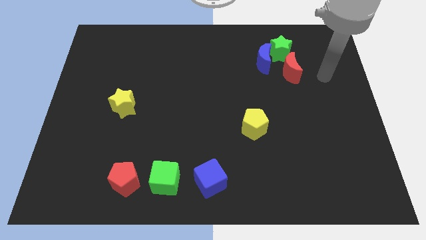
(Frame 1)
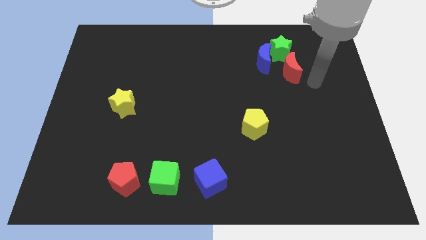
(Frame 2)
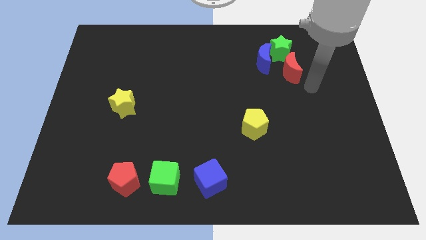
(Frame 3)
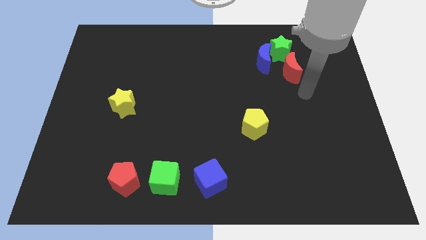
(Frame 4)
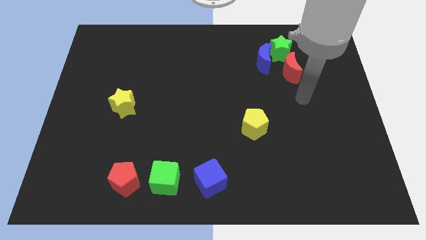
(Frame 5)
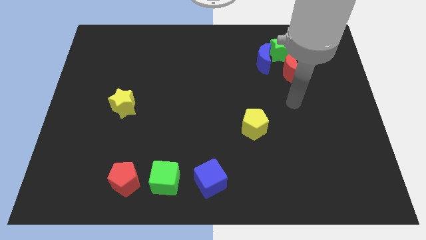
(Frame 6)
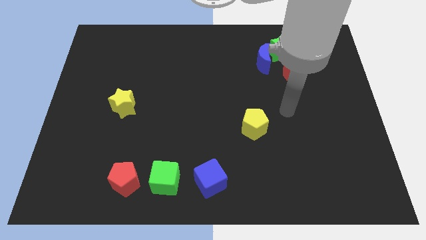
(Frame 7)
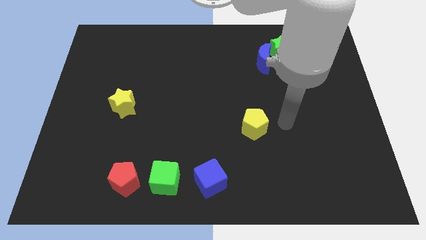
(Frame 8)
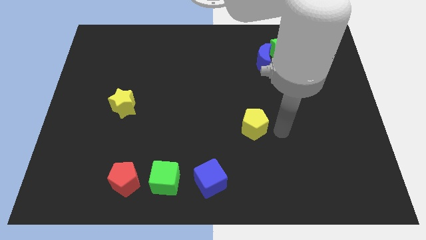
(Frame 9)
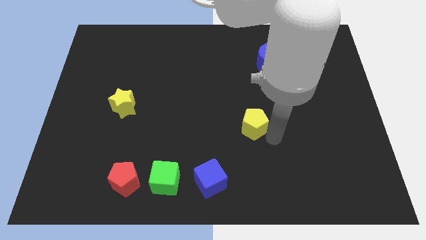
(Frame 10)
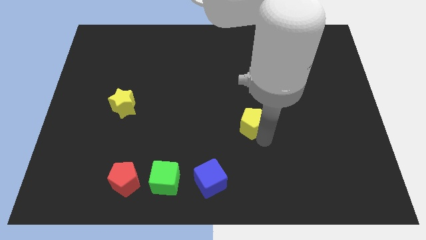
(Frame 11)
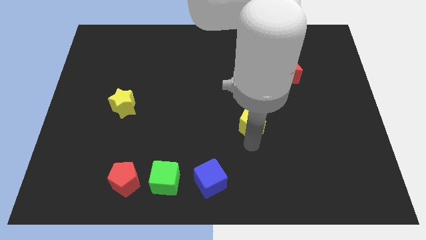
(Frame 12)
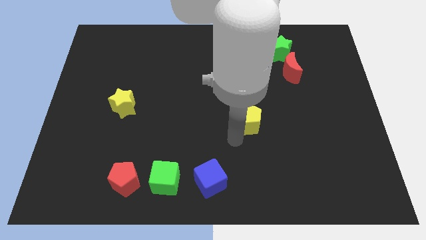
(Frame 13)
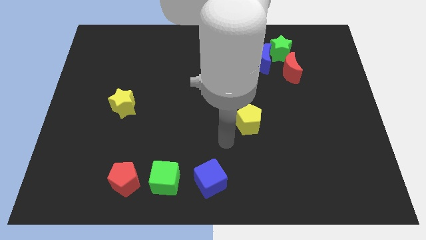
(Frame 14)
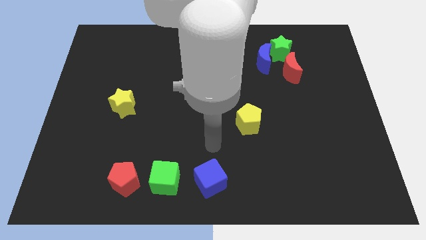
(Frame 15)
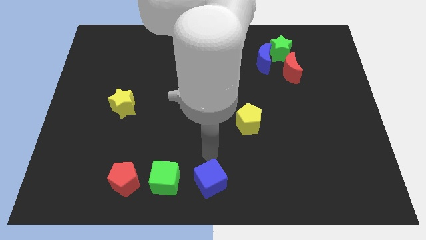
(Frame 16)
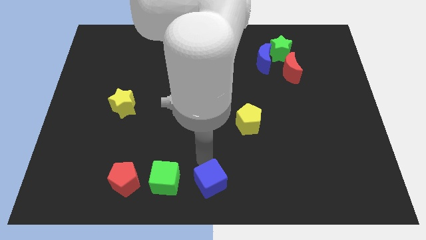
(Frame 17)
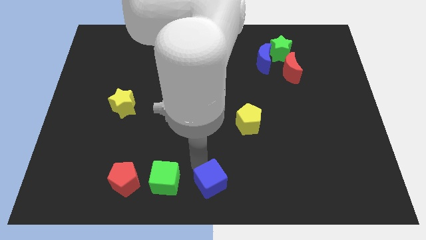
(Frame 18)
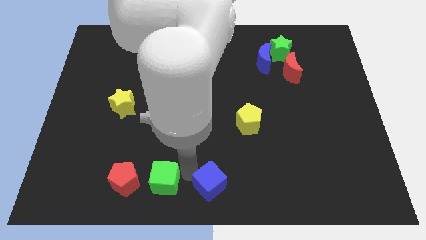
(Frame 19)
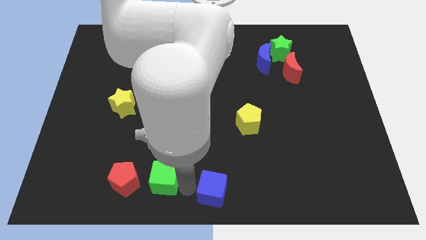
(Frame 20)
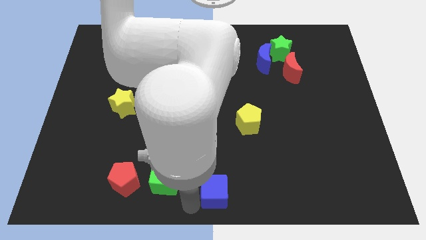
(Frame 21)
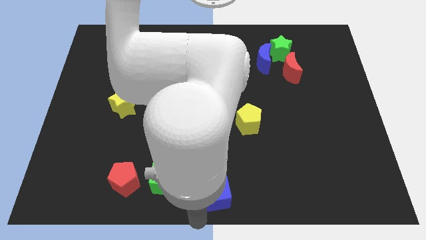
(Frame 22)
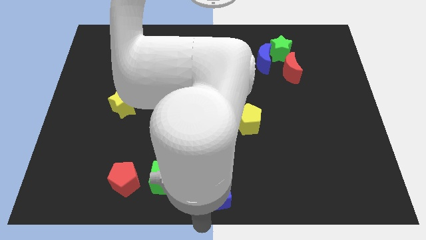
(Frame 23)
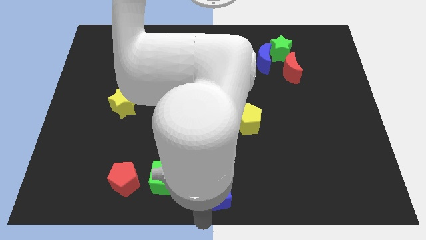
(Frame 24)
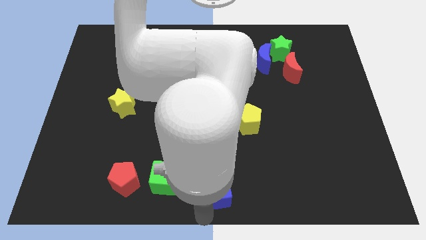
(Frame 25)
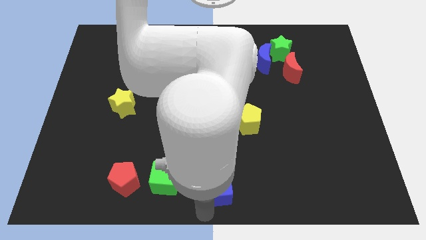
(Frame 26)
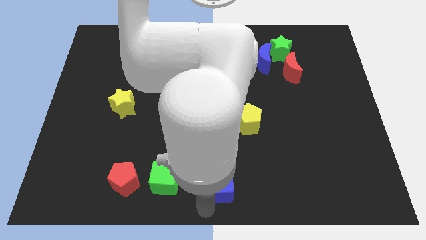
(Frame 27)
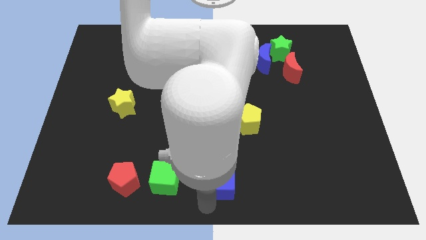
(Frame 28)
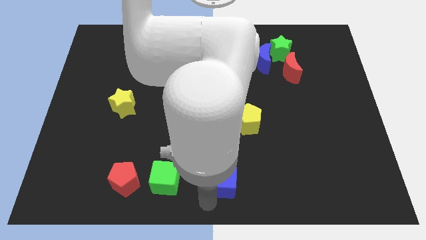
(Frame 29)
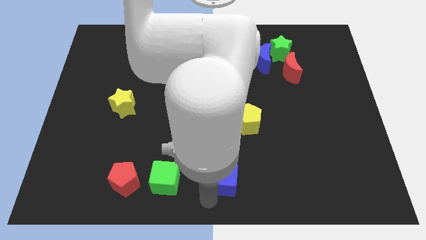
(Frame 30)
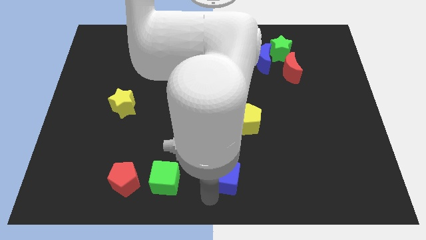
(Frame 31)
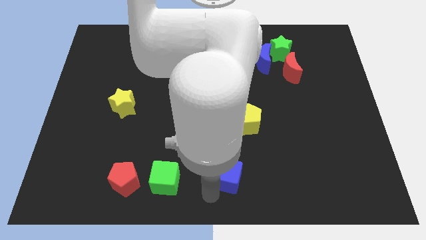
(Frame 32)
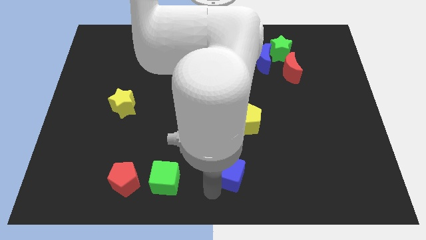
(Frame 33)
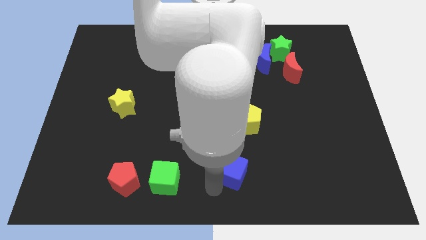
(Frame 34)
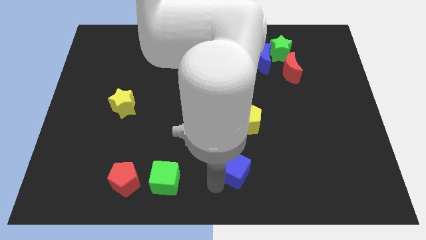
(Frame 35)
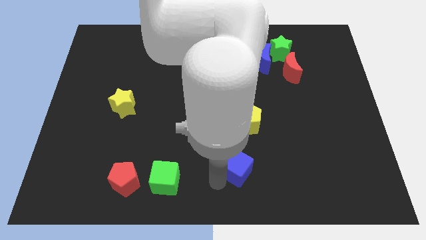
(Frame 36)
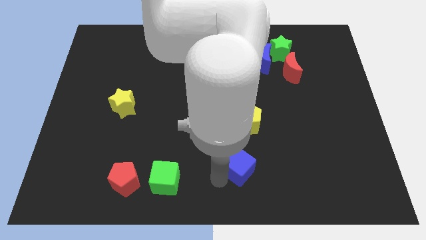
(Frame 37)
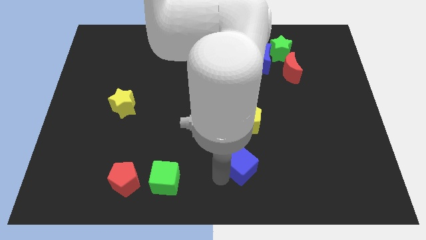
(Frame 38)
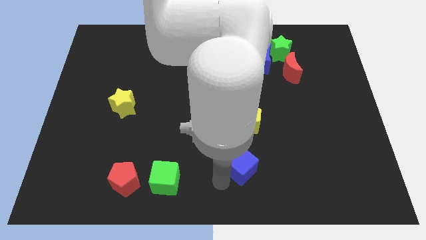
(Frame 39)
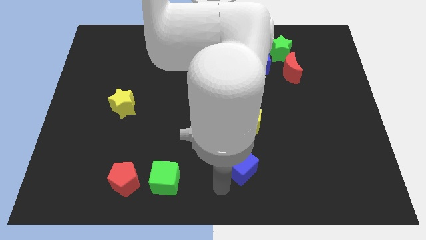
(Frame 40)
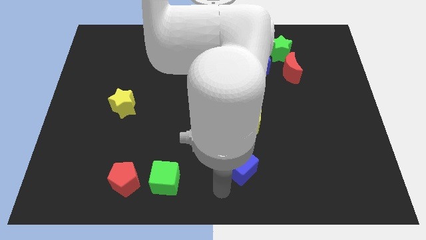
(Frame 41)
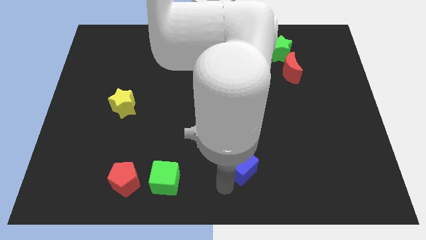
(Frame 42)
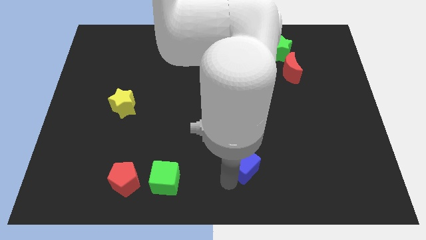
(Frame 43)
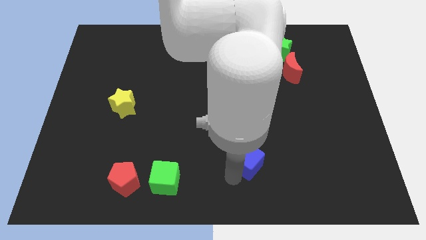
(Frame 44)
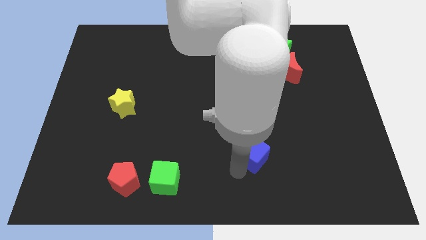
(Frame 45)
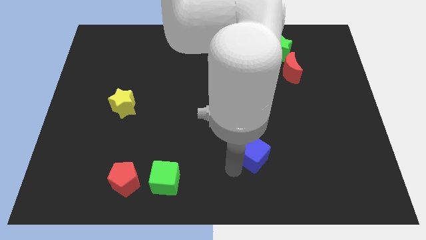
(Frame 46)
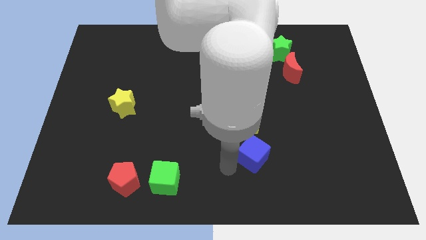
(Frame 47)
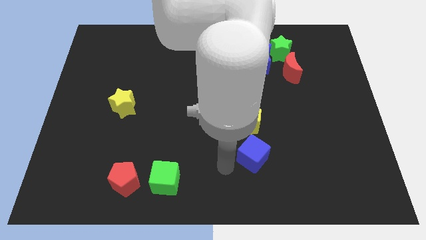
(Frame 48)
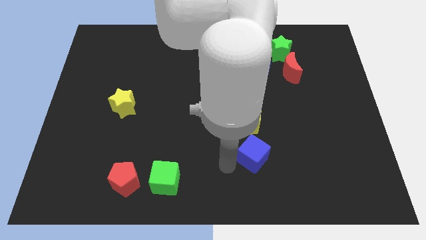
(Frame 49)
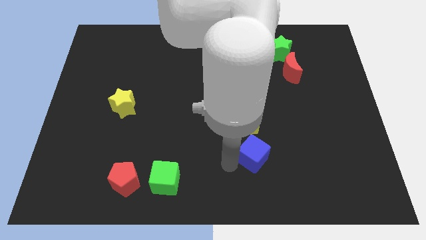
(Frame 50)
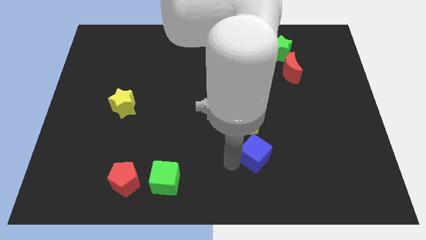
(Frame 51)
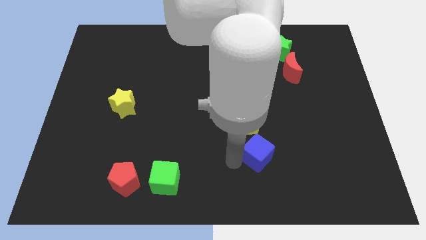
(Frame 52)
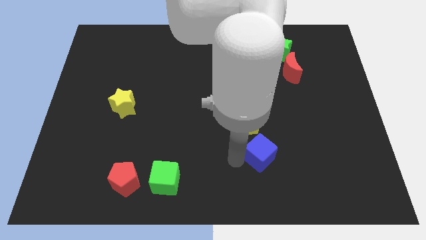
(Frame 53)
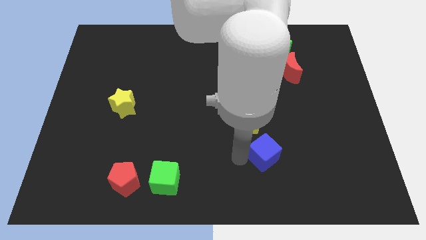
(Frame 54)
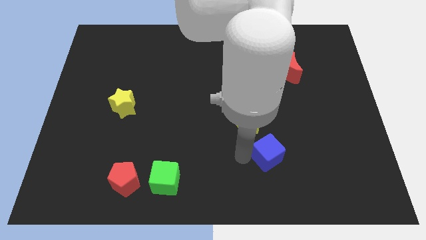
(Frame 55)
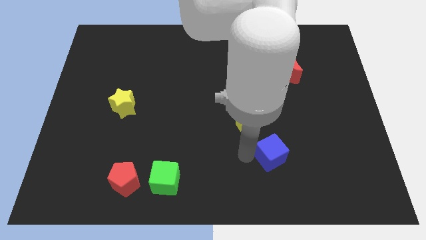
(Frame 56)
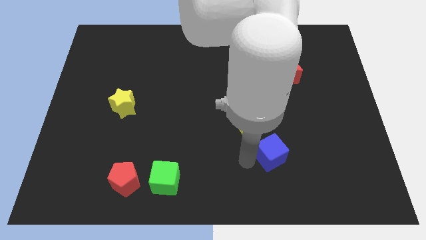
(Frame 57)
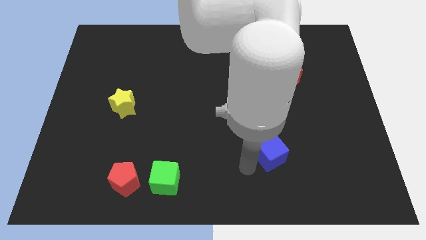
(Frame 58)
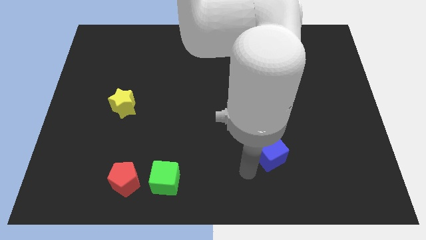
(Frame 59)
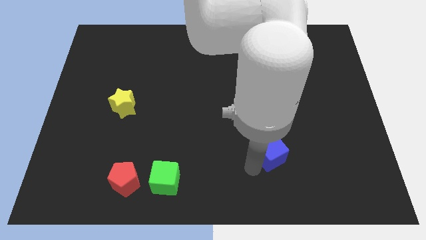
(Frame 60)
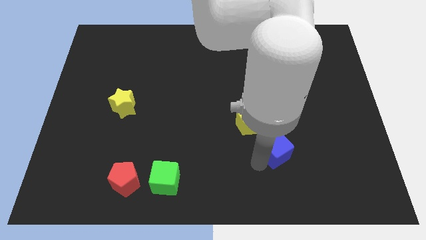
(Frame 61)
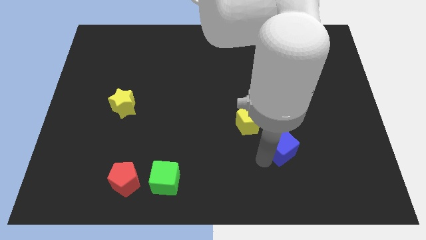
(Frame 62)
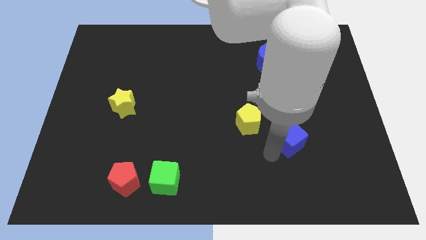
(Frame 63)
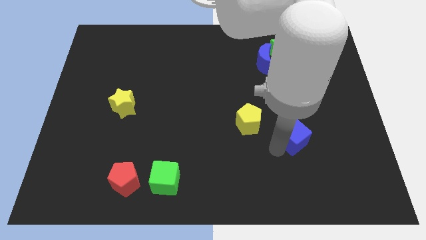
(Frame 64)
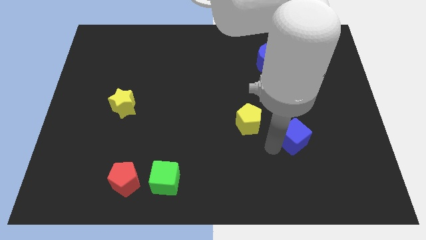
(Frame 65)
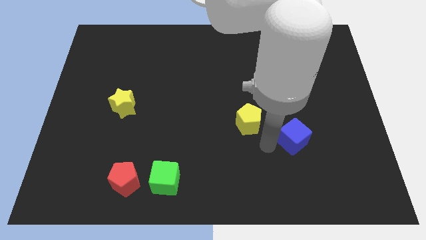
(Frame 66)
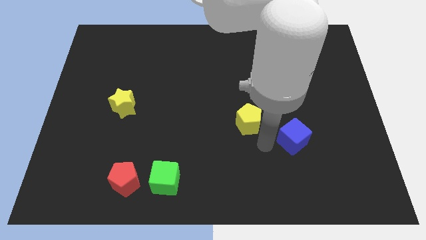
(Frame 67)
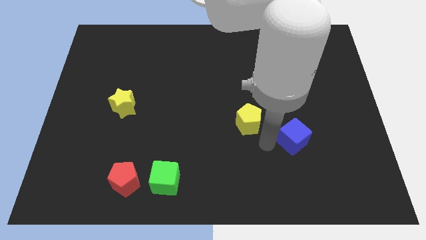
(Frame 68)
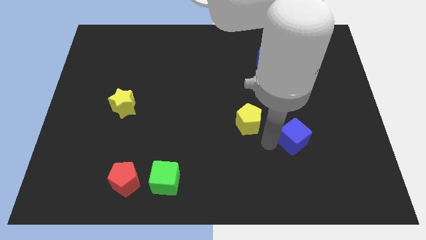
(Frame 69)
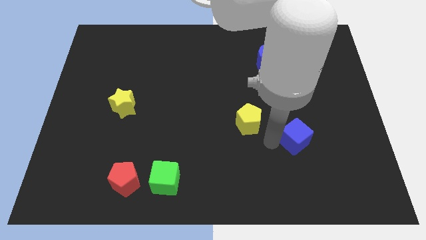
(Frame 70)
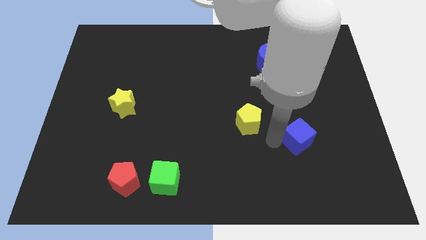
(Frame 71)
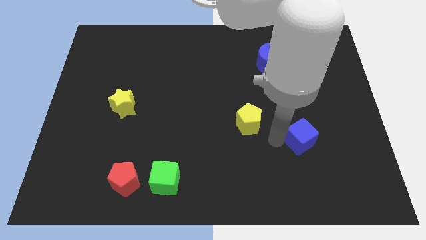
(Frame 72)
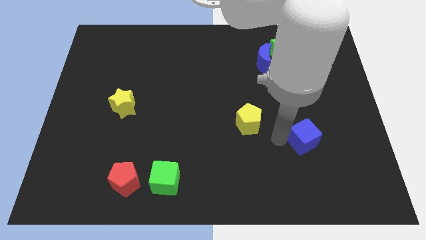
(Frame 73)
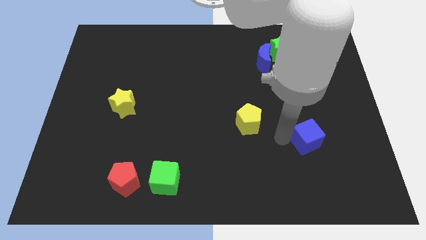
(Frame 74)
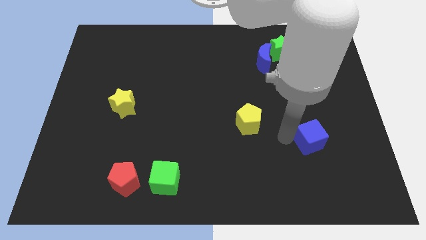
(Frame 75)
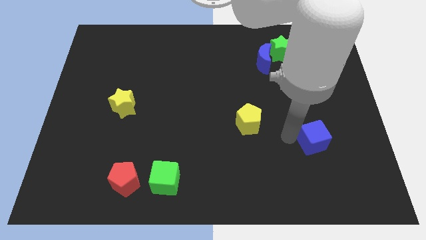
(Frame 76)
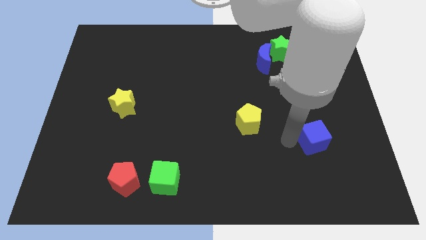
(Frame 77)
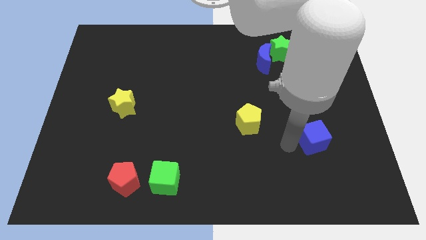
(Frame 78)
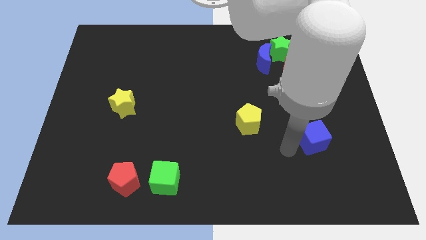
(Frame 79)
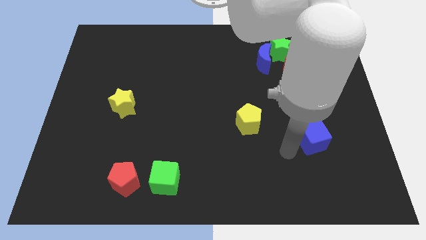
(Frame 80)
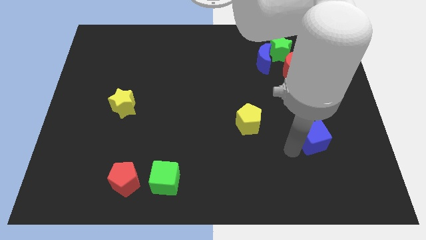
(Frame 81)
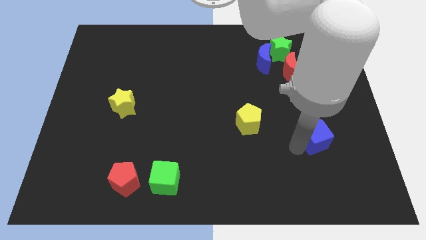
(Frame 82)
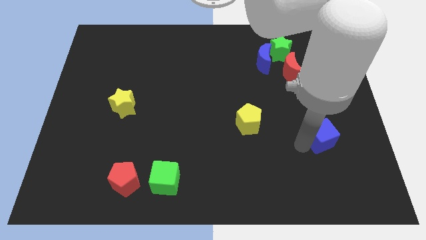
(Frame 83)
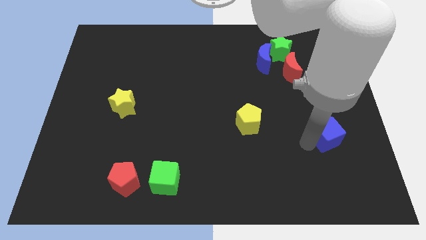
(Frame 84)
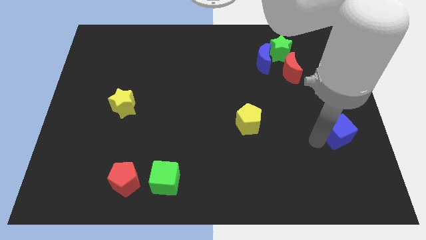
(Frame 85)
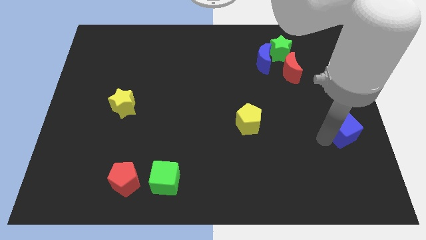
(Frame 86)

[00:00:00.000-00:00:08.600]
put the blue cube to the right side
